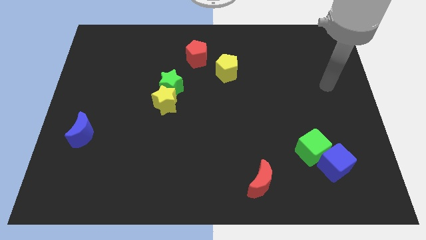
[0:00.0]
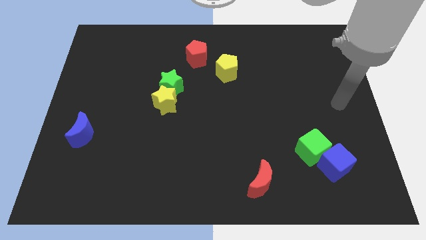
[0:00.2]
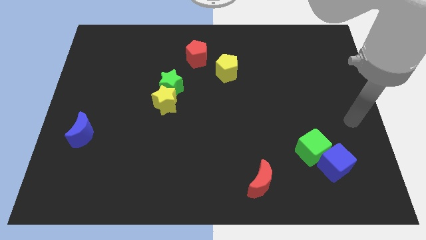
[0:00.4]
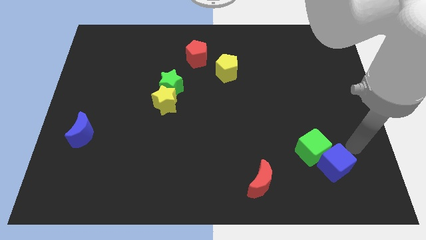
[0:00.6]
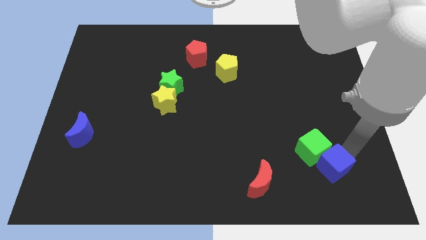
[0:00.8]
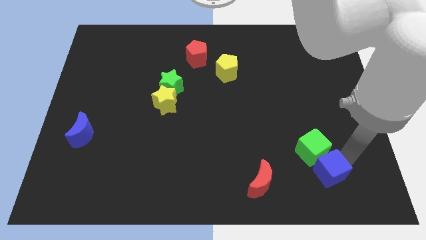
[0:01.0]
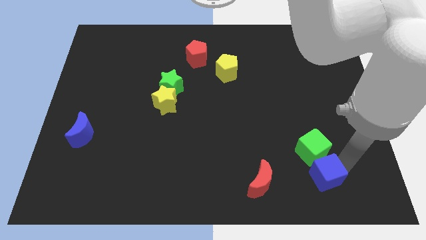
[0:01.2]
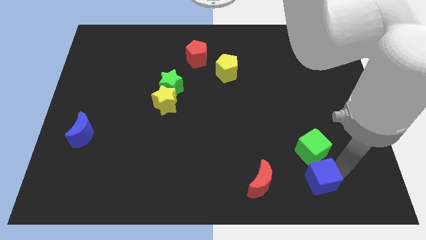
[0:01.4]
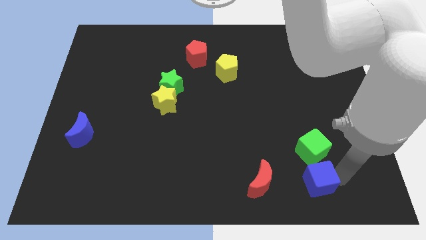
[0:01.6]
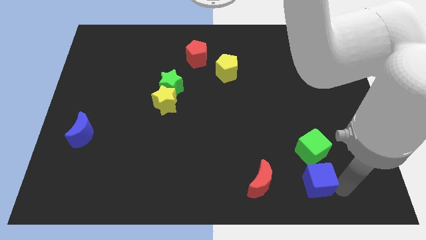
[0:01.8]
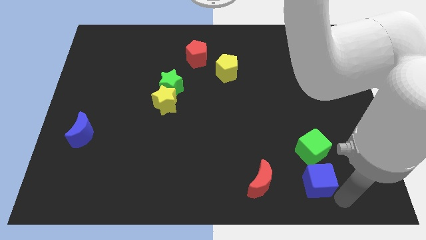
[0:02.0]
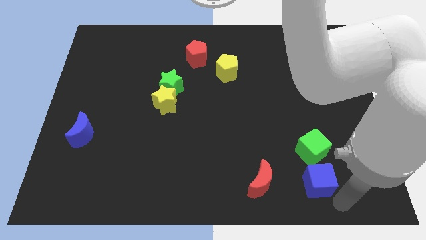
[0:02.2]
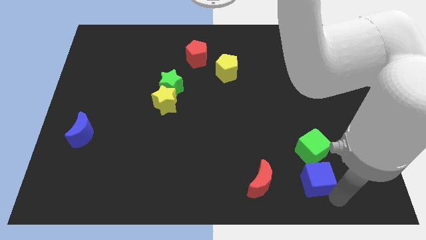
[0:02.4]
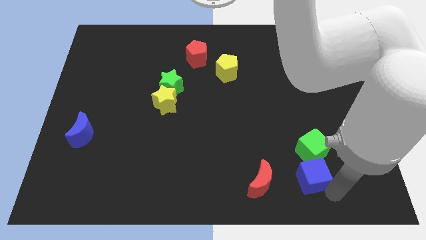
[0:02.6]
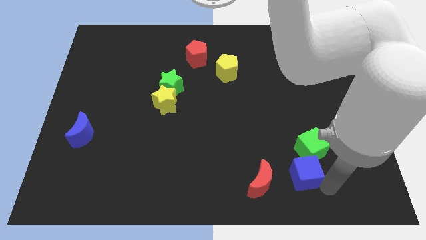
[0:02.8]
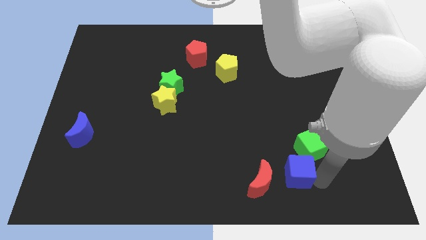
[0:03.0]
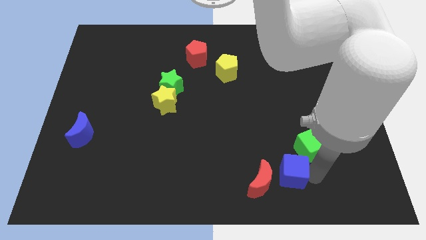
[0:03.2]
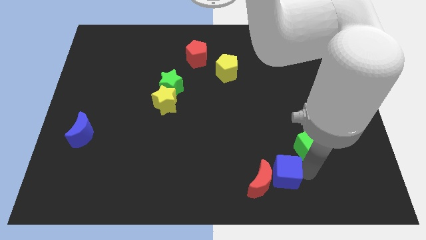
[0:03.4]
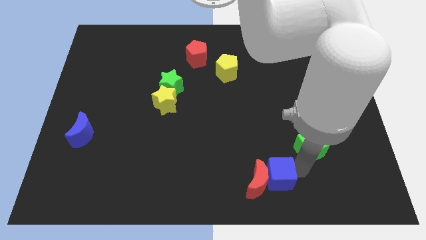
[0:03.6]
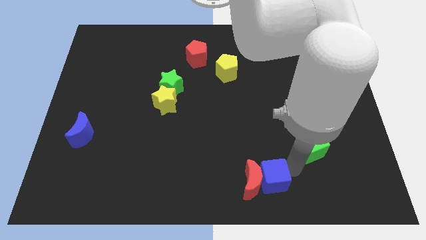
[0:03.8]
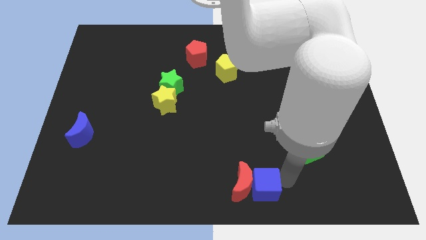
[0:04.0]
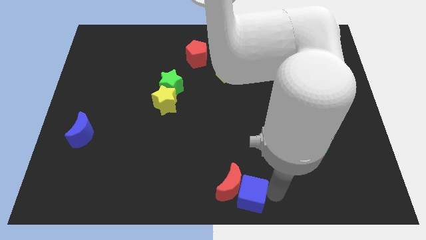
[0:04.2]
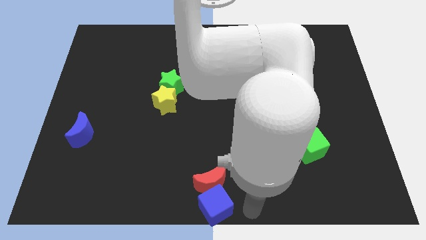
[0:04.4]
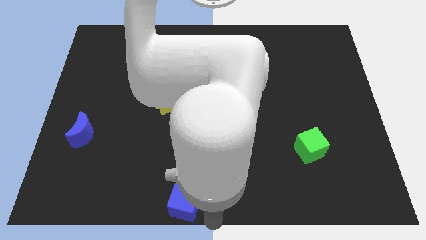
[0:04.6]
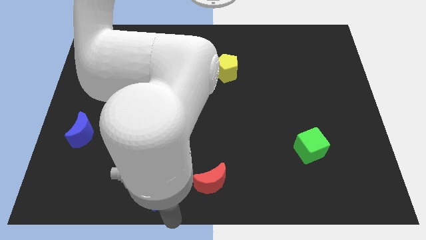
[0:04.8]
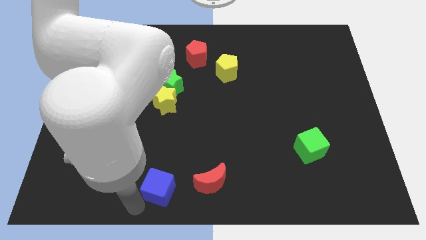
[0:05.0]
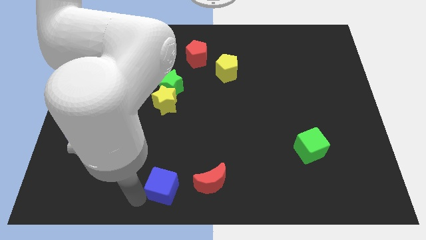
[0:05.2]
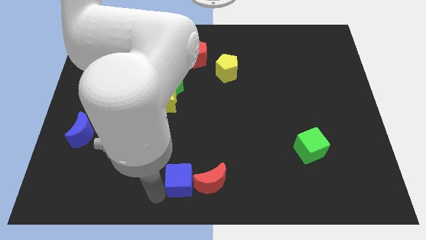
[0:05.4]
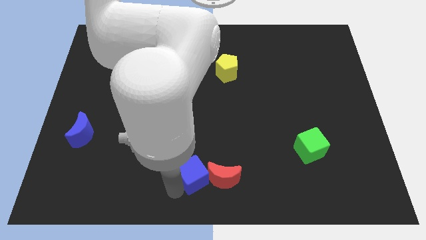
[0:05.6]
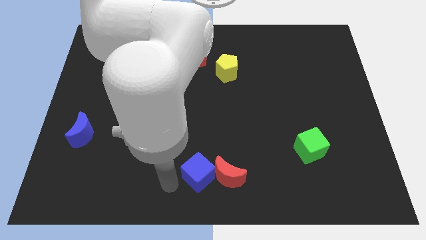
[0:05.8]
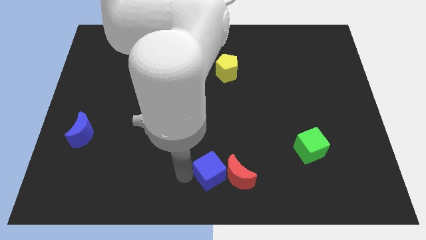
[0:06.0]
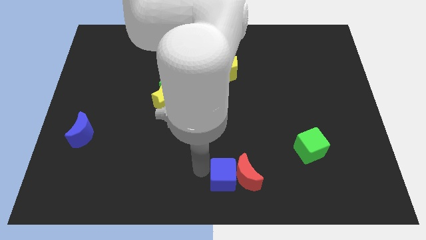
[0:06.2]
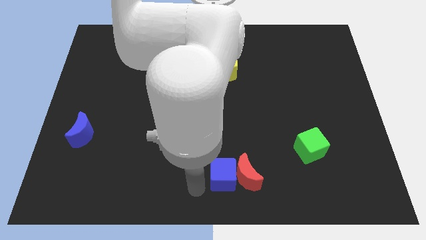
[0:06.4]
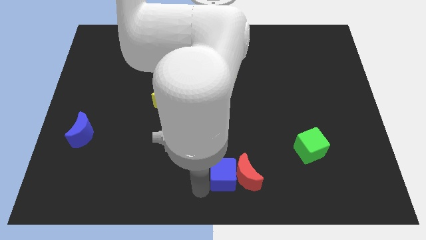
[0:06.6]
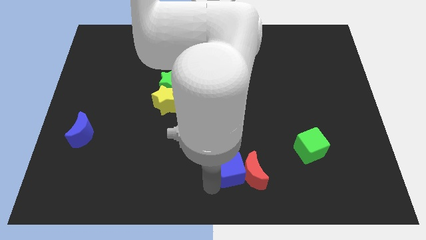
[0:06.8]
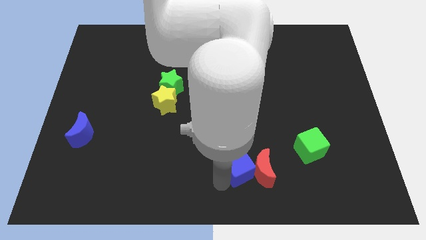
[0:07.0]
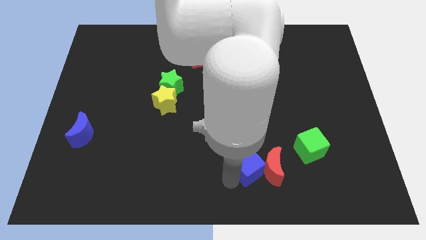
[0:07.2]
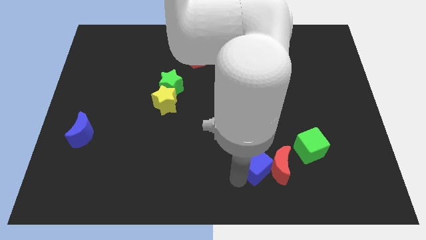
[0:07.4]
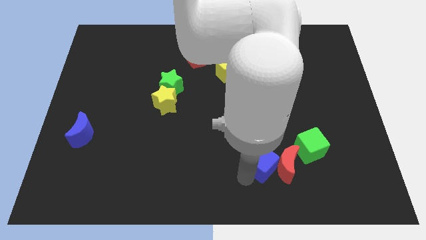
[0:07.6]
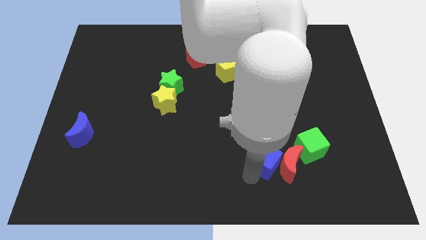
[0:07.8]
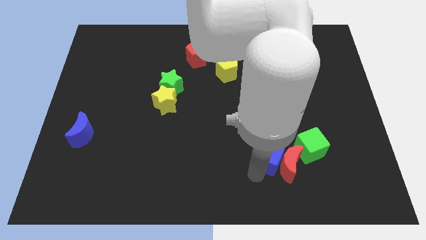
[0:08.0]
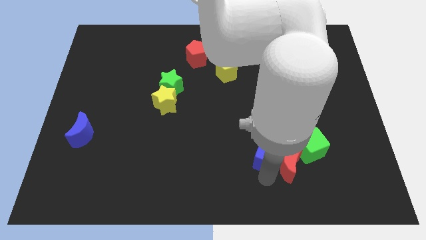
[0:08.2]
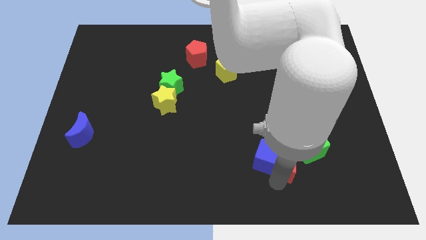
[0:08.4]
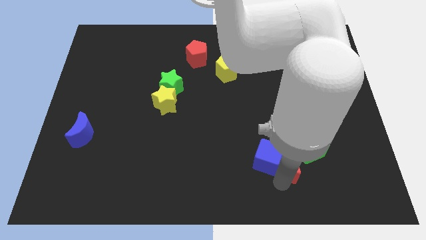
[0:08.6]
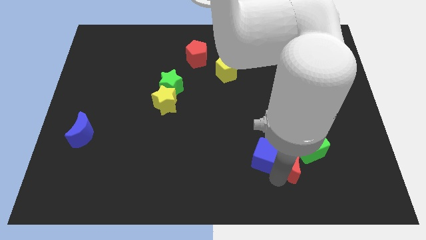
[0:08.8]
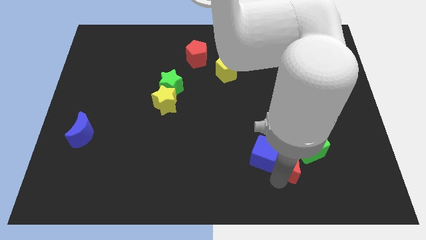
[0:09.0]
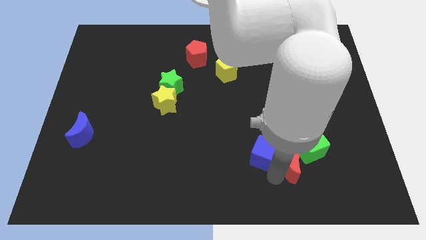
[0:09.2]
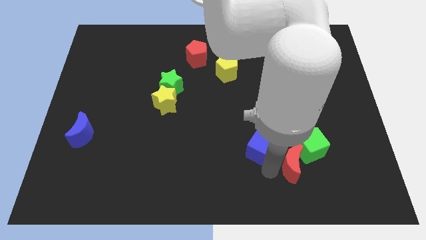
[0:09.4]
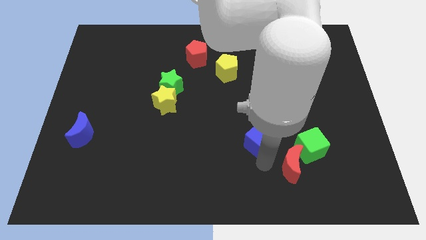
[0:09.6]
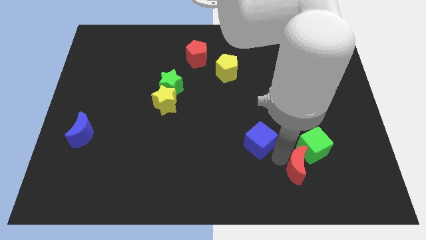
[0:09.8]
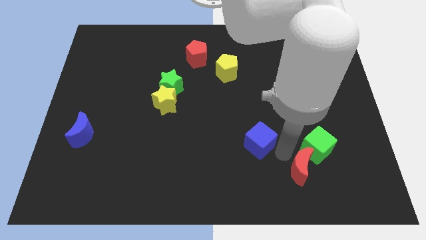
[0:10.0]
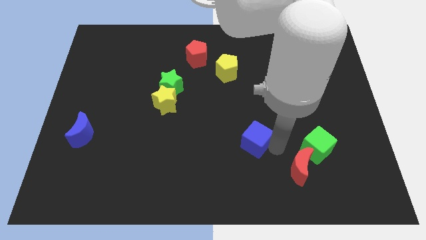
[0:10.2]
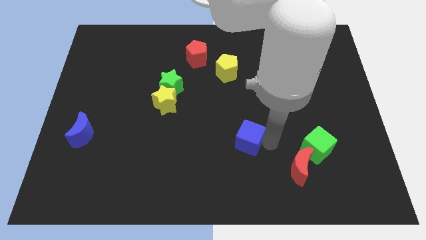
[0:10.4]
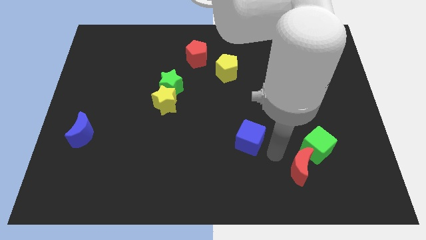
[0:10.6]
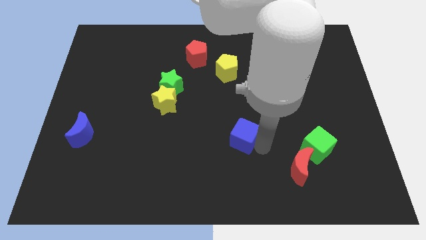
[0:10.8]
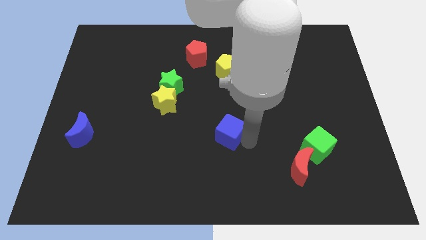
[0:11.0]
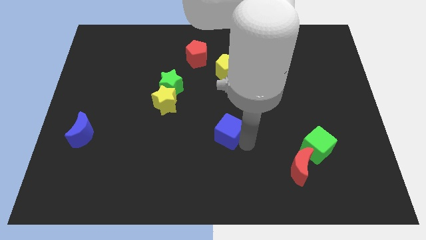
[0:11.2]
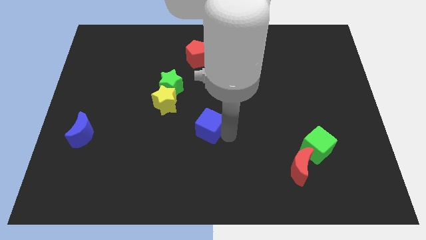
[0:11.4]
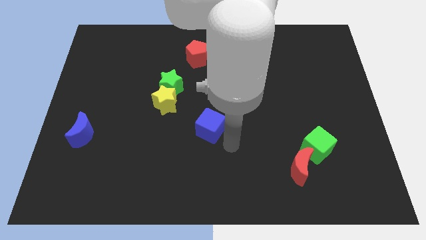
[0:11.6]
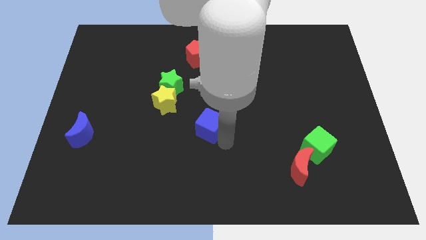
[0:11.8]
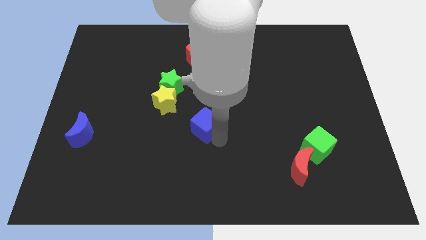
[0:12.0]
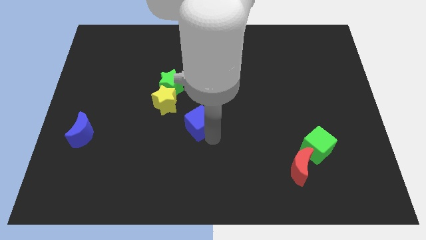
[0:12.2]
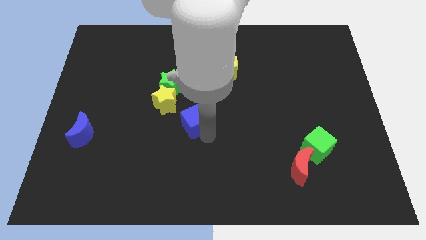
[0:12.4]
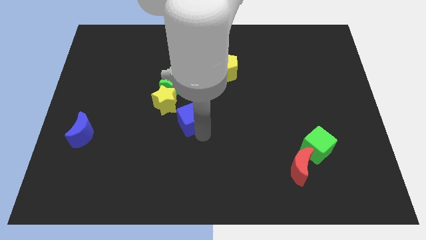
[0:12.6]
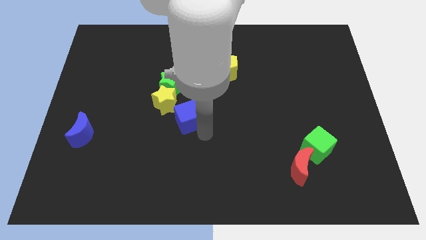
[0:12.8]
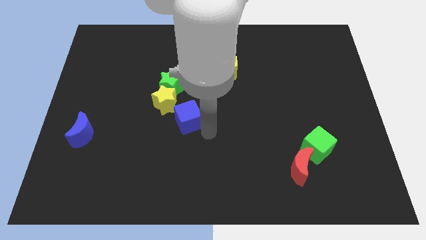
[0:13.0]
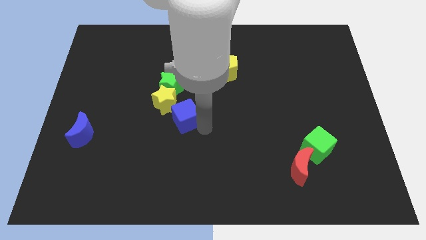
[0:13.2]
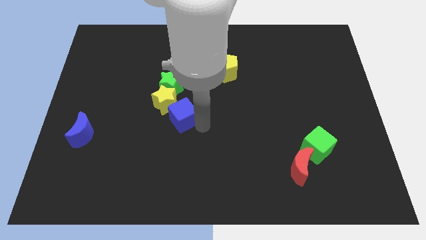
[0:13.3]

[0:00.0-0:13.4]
move the blue cube close to the yellow star
